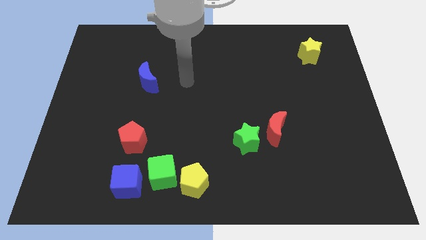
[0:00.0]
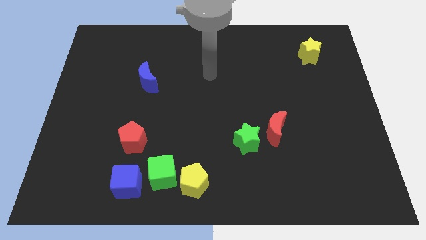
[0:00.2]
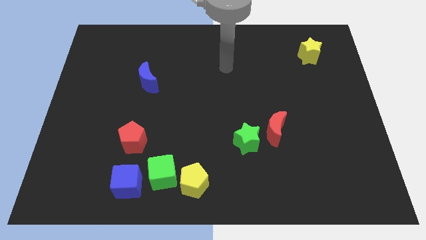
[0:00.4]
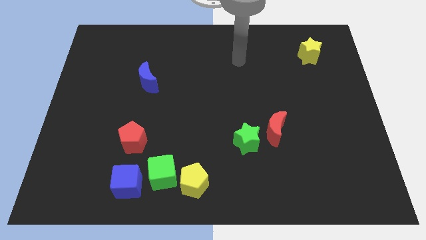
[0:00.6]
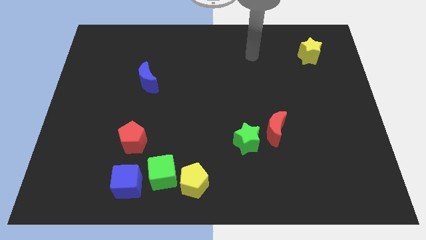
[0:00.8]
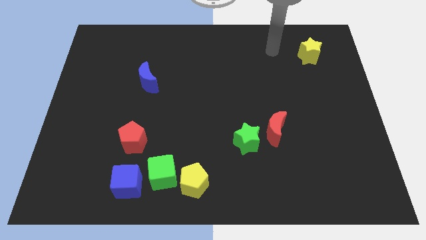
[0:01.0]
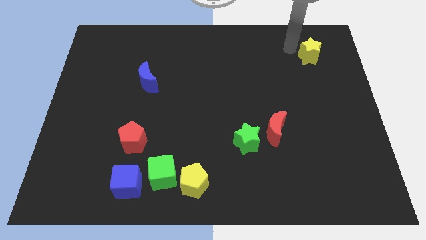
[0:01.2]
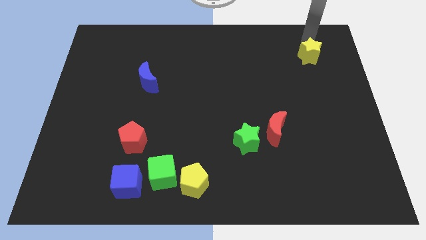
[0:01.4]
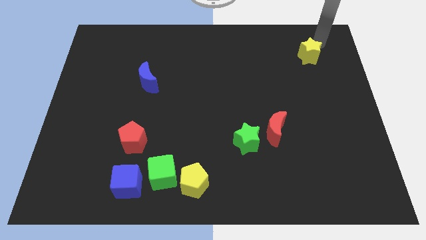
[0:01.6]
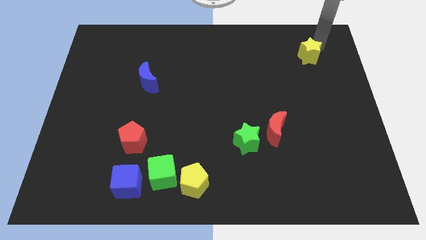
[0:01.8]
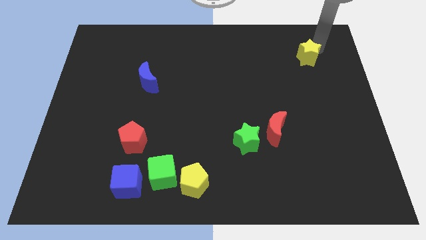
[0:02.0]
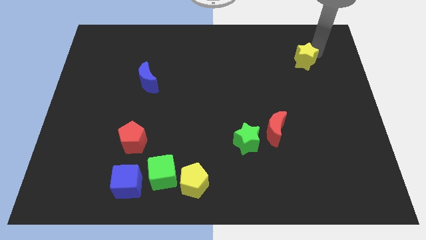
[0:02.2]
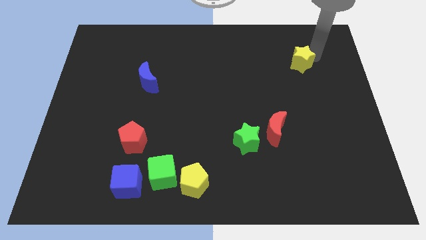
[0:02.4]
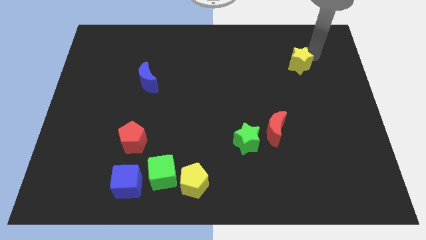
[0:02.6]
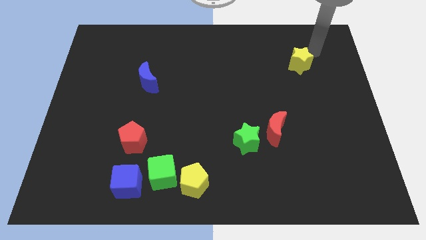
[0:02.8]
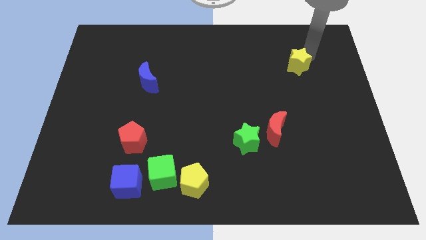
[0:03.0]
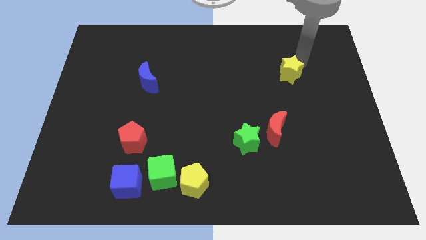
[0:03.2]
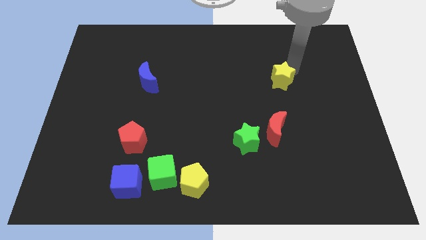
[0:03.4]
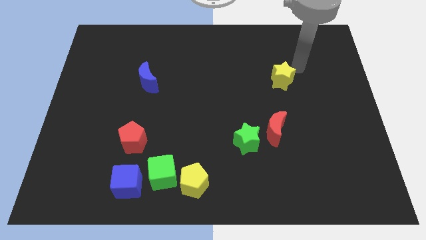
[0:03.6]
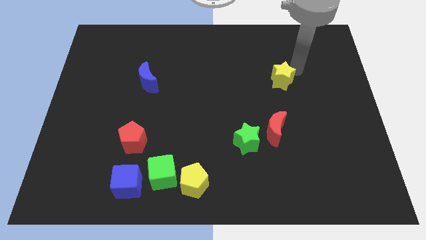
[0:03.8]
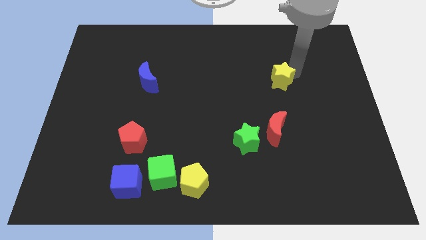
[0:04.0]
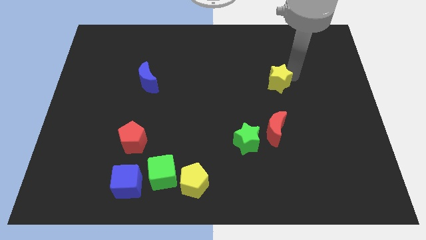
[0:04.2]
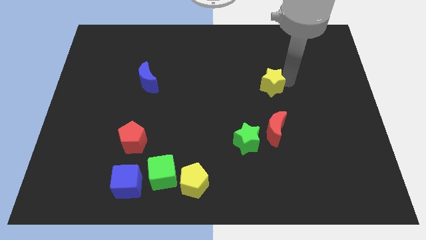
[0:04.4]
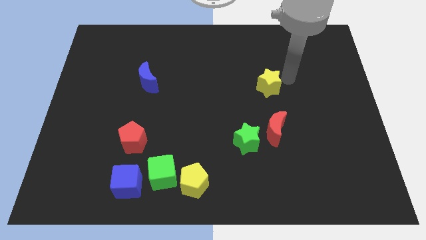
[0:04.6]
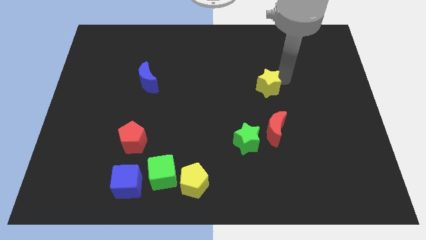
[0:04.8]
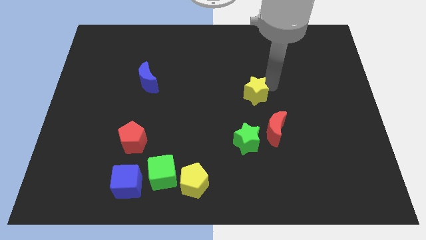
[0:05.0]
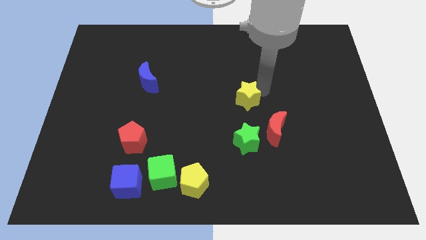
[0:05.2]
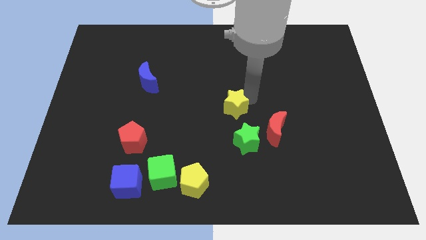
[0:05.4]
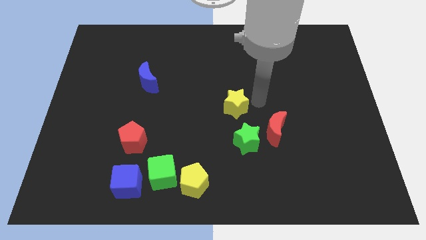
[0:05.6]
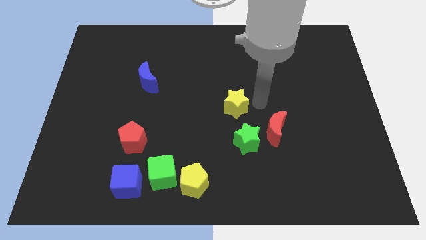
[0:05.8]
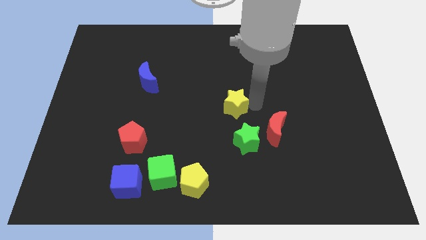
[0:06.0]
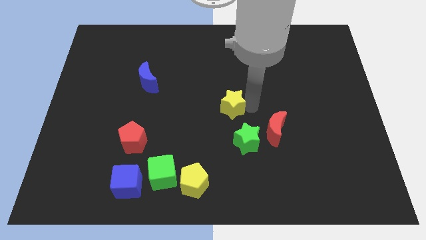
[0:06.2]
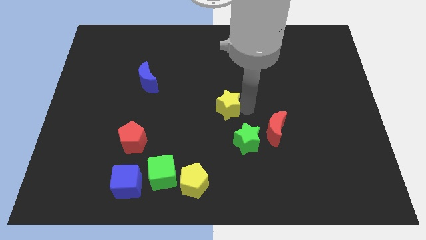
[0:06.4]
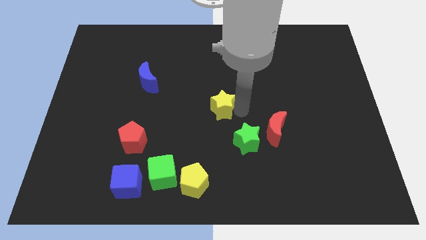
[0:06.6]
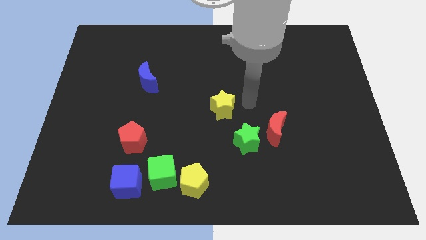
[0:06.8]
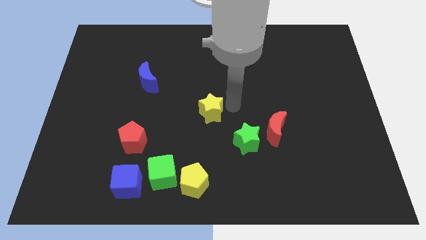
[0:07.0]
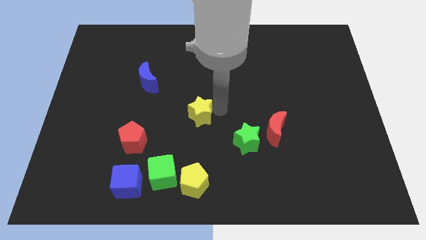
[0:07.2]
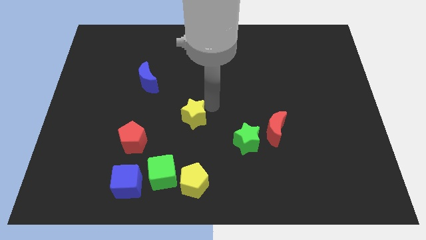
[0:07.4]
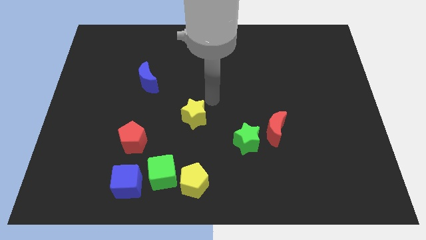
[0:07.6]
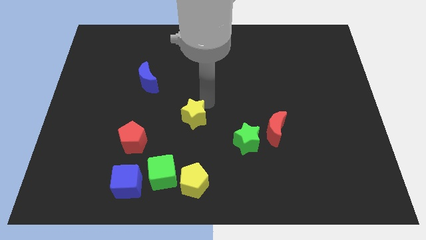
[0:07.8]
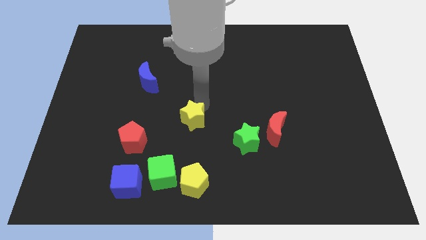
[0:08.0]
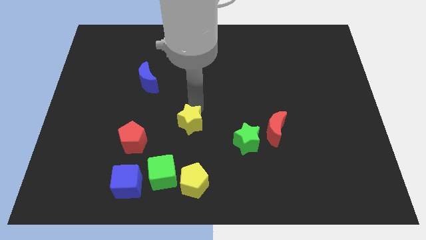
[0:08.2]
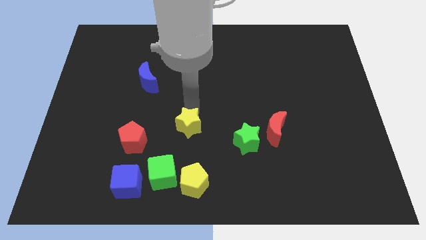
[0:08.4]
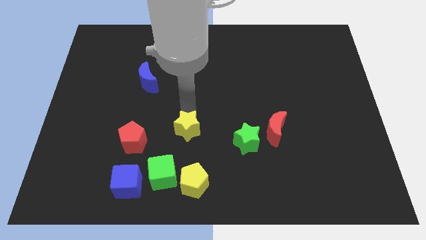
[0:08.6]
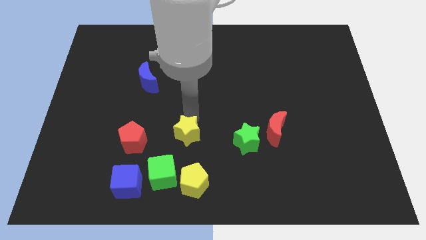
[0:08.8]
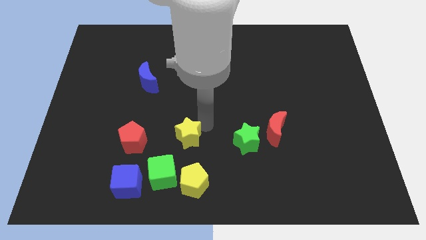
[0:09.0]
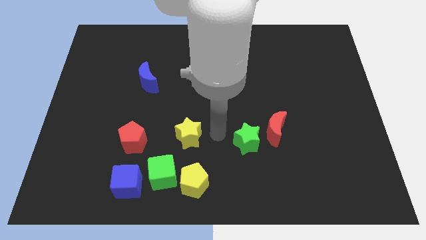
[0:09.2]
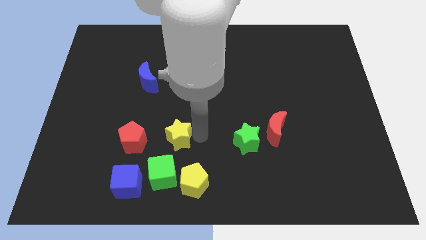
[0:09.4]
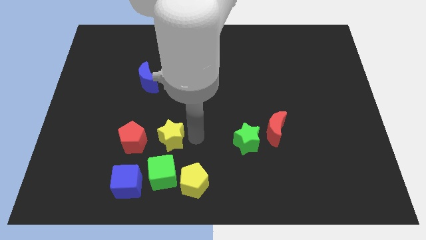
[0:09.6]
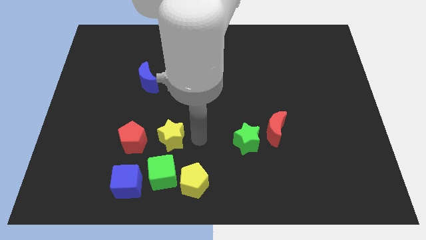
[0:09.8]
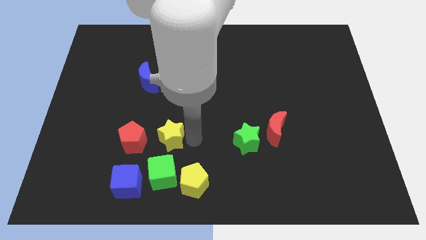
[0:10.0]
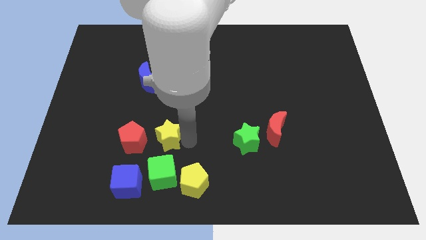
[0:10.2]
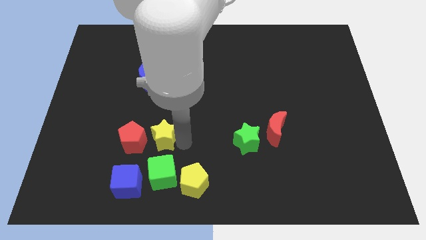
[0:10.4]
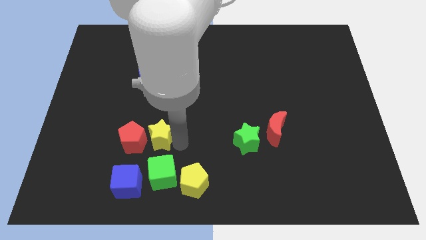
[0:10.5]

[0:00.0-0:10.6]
slide the yellow star next to the red pentagon

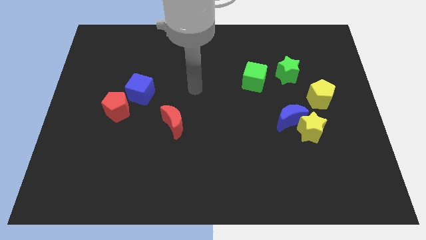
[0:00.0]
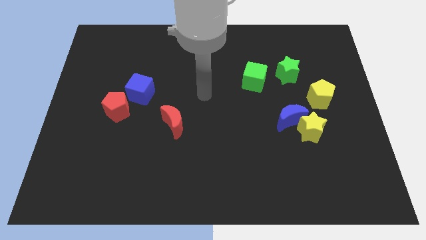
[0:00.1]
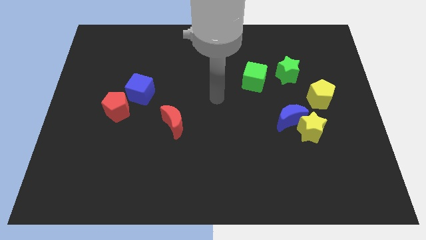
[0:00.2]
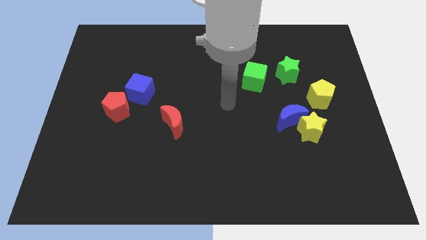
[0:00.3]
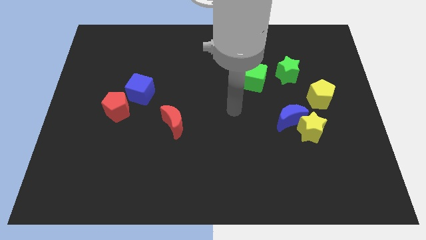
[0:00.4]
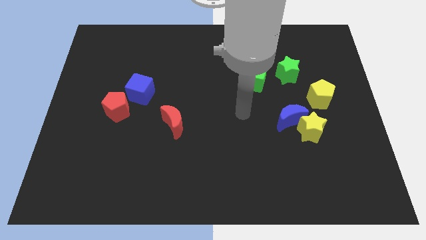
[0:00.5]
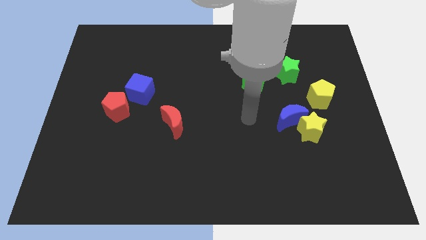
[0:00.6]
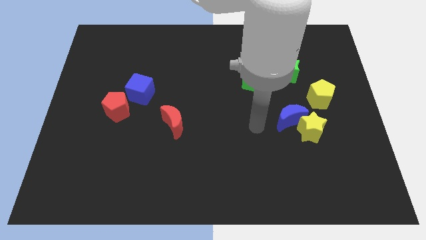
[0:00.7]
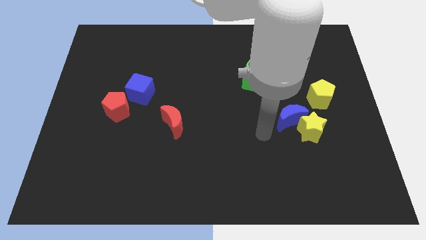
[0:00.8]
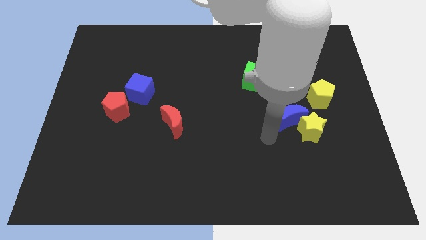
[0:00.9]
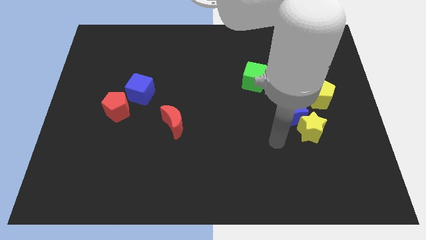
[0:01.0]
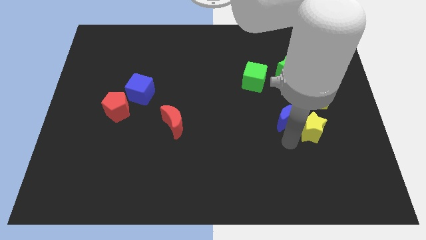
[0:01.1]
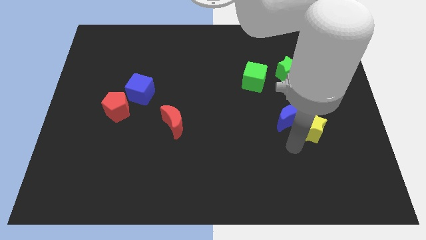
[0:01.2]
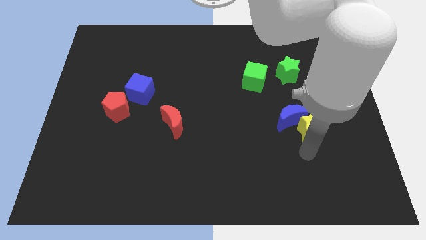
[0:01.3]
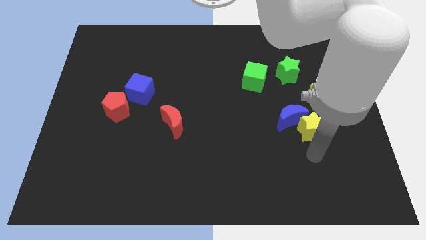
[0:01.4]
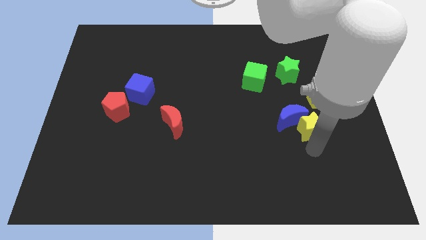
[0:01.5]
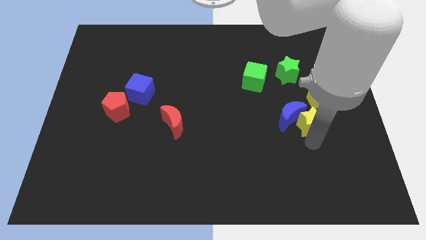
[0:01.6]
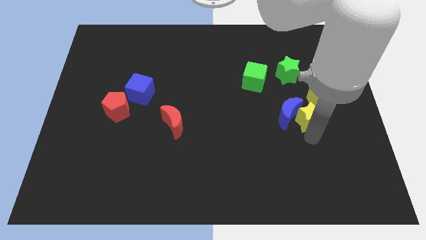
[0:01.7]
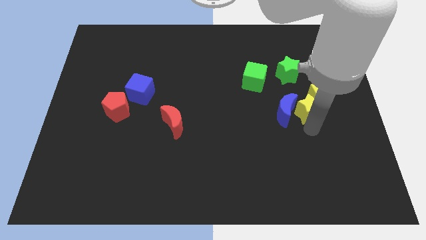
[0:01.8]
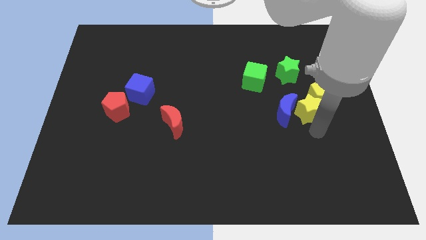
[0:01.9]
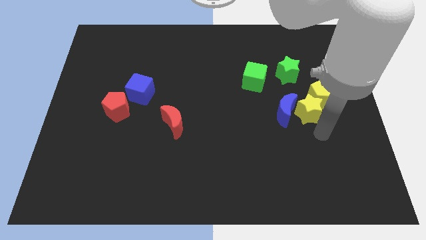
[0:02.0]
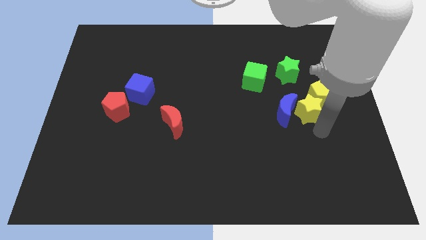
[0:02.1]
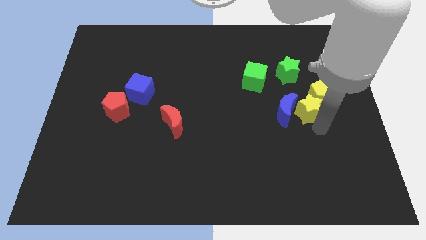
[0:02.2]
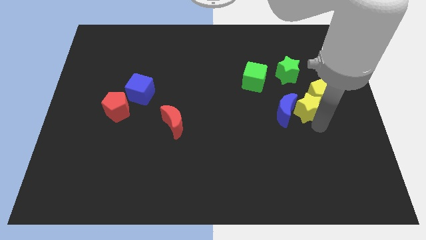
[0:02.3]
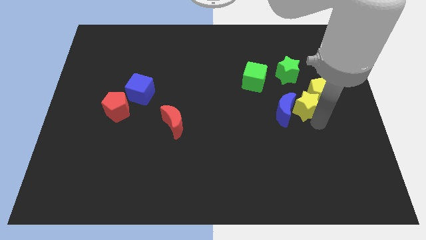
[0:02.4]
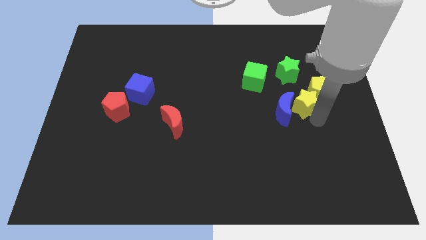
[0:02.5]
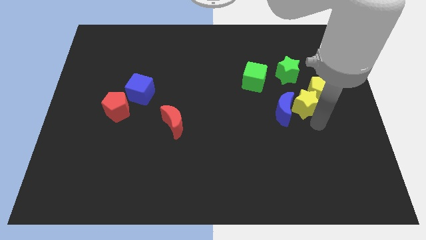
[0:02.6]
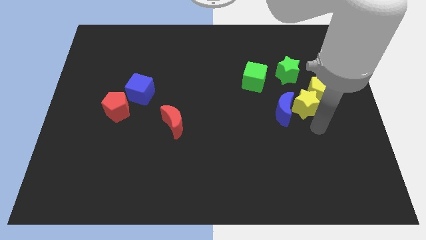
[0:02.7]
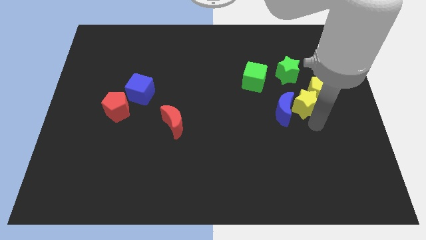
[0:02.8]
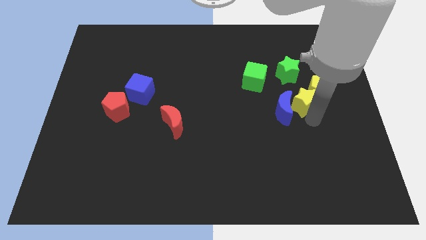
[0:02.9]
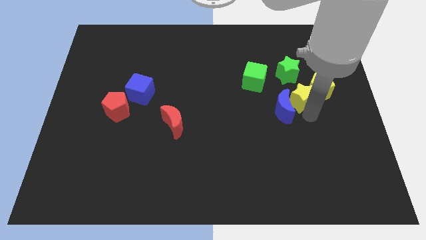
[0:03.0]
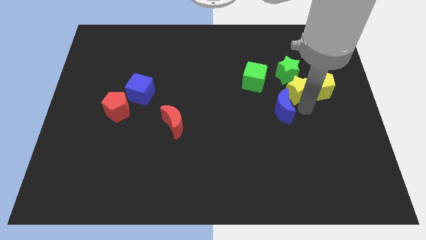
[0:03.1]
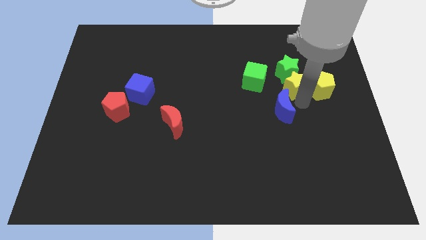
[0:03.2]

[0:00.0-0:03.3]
push the yellow star next to the green star
